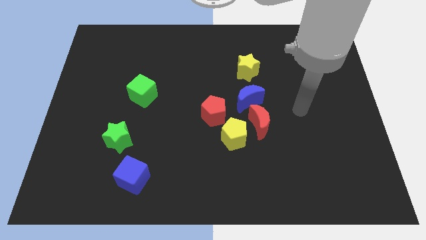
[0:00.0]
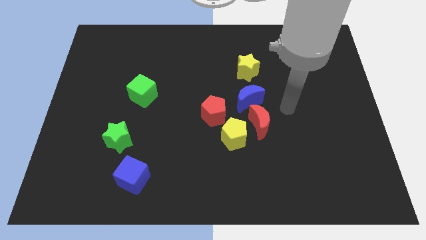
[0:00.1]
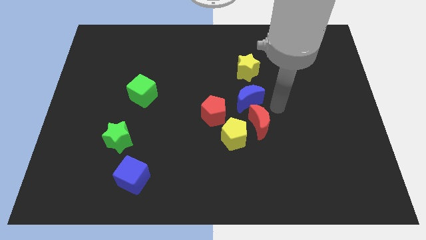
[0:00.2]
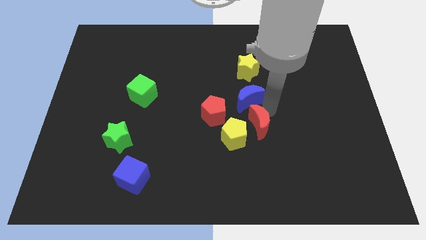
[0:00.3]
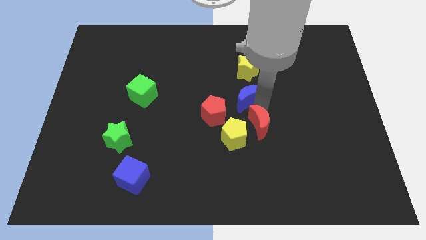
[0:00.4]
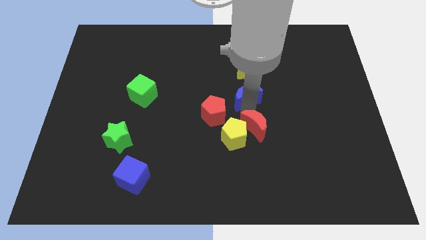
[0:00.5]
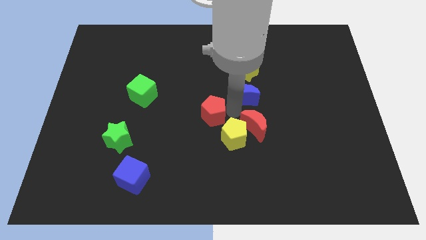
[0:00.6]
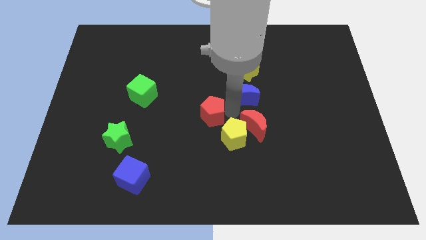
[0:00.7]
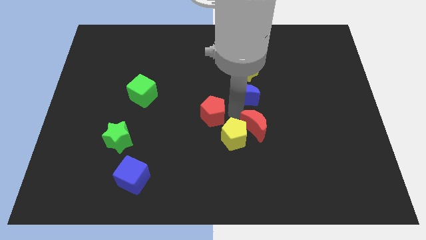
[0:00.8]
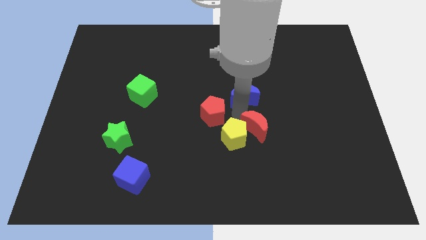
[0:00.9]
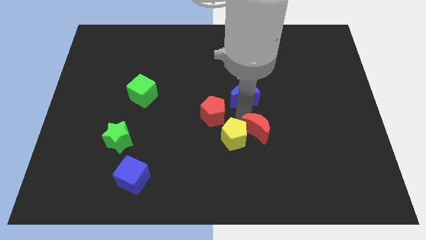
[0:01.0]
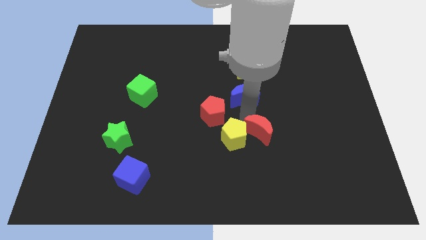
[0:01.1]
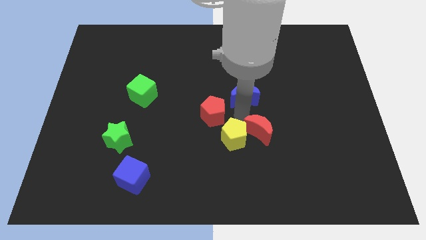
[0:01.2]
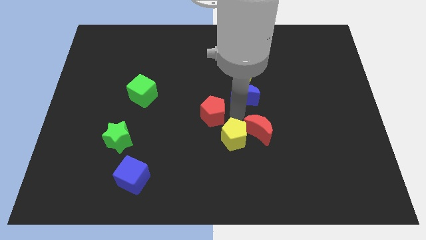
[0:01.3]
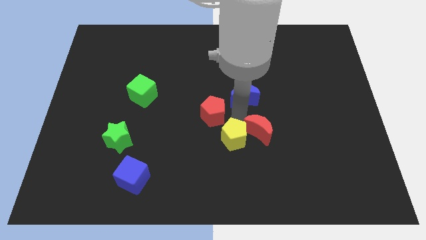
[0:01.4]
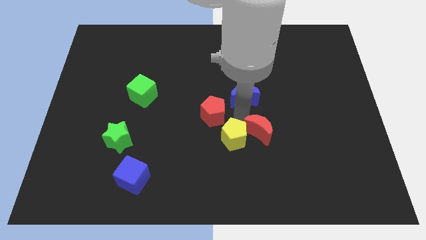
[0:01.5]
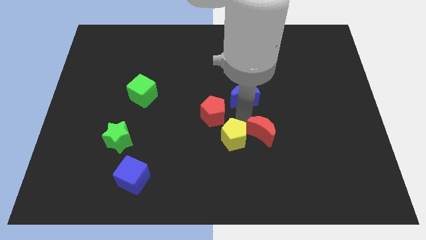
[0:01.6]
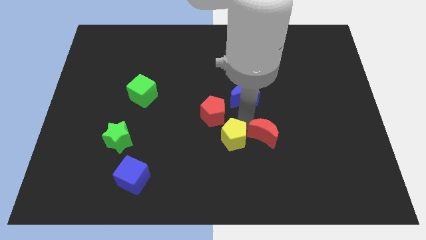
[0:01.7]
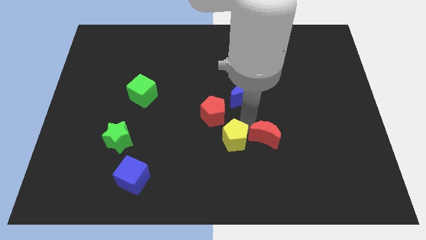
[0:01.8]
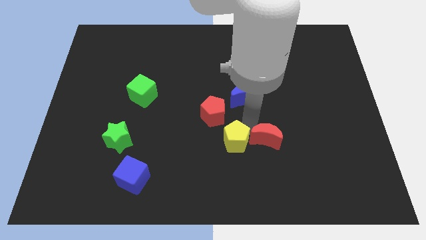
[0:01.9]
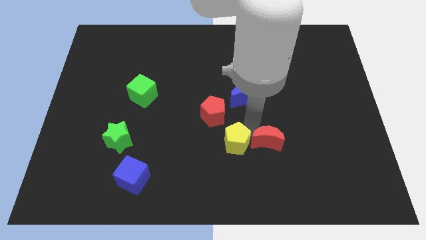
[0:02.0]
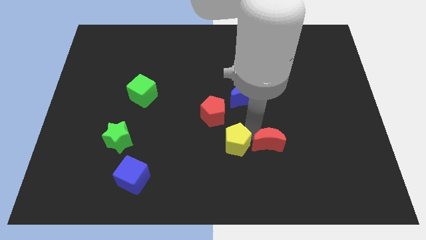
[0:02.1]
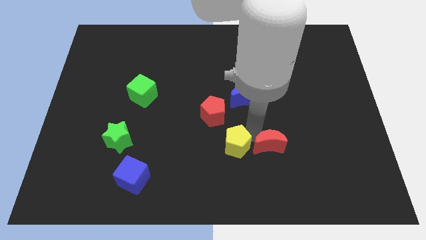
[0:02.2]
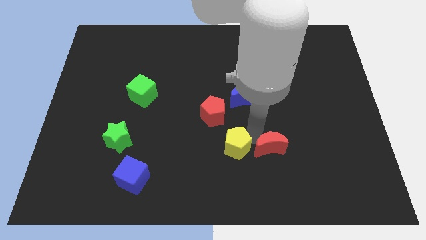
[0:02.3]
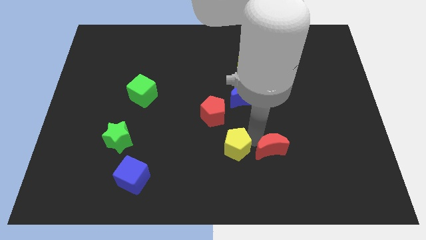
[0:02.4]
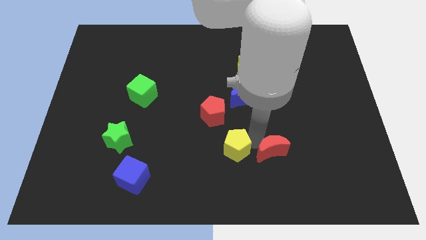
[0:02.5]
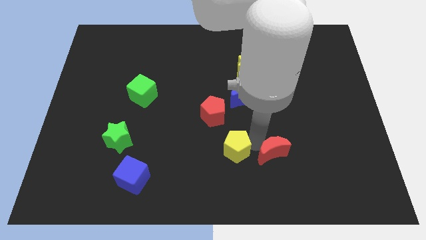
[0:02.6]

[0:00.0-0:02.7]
separate the red moon from the yellow pentagon and blue moon

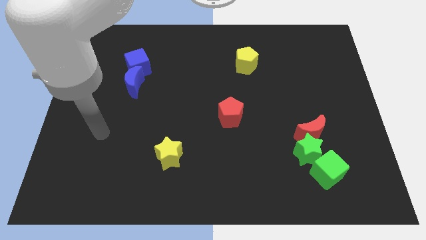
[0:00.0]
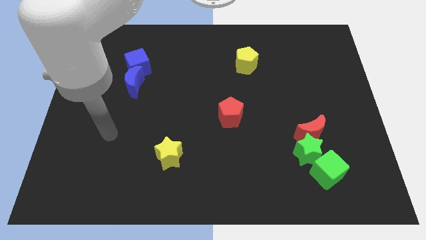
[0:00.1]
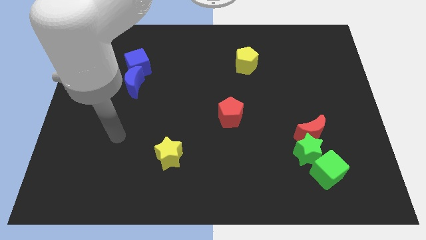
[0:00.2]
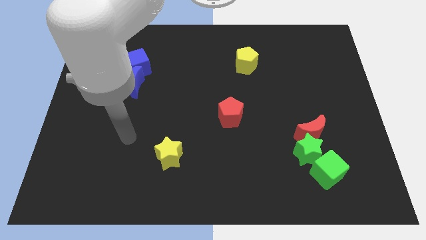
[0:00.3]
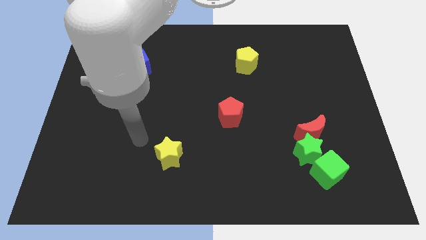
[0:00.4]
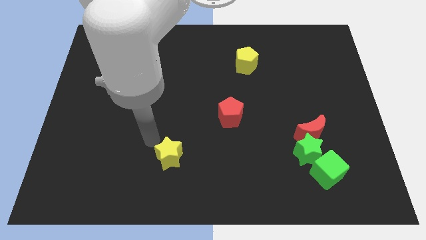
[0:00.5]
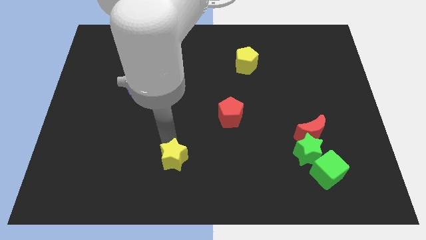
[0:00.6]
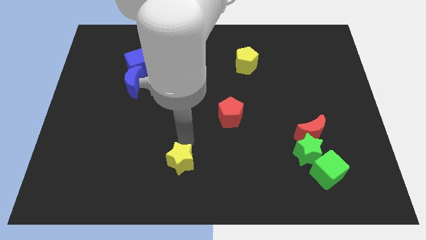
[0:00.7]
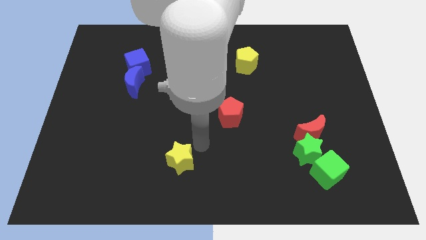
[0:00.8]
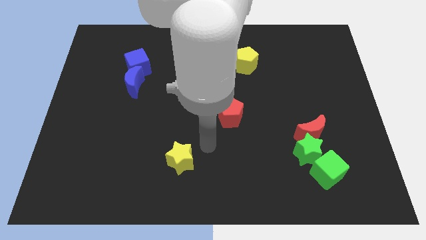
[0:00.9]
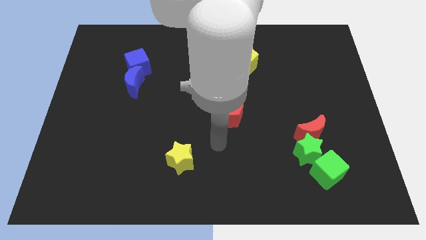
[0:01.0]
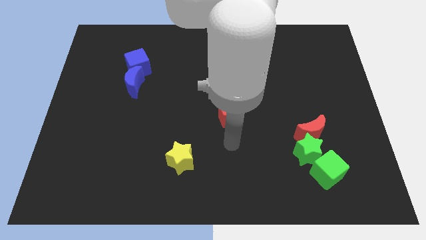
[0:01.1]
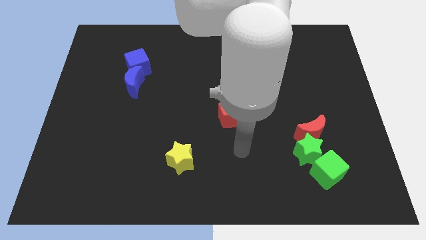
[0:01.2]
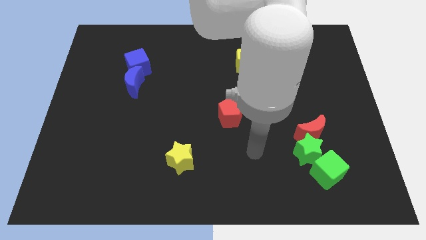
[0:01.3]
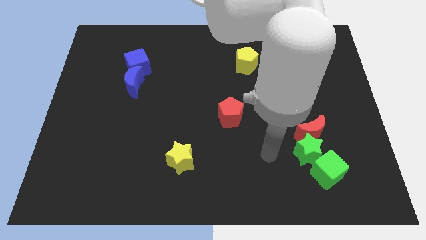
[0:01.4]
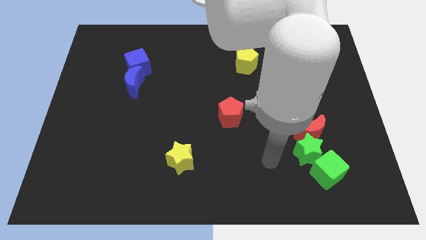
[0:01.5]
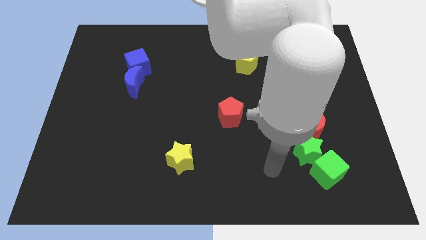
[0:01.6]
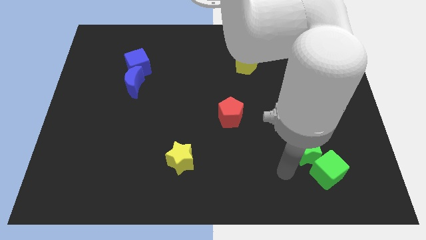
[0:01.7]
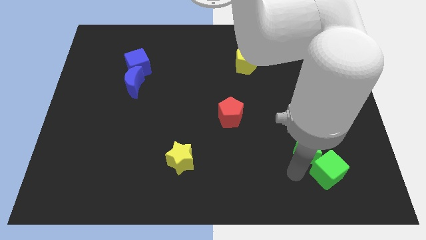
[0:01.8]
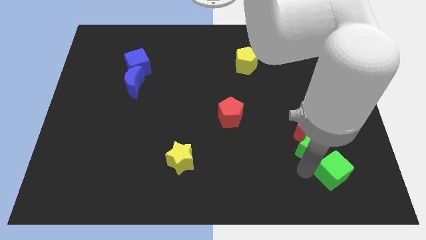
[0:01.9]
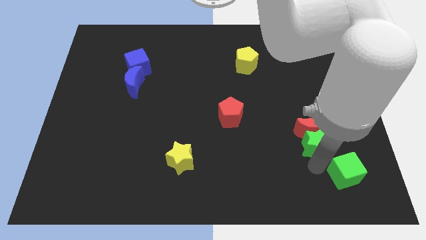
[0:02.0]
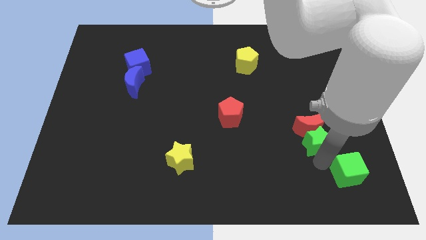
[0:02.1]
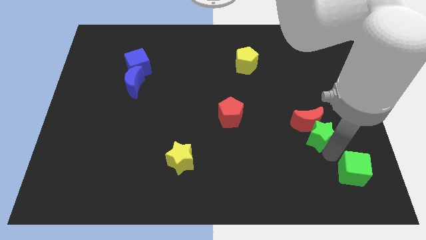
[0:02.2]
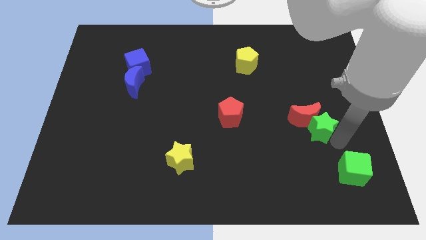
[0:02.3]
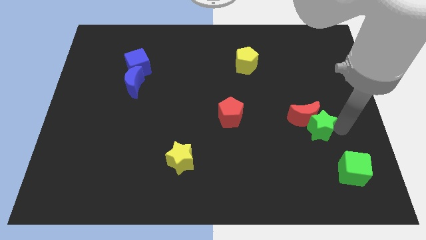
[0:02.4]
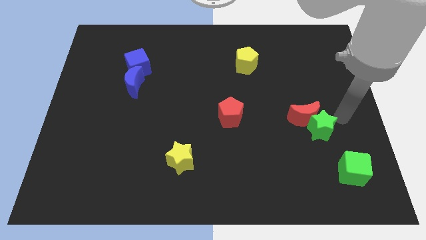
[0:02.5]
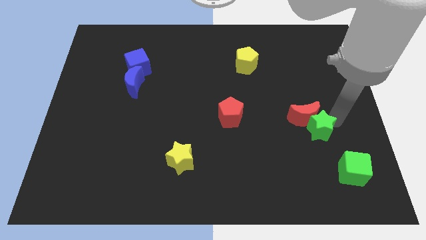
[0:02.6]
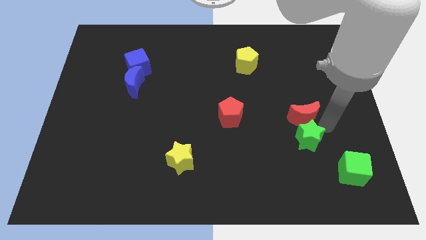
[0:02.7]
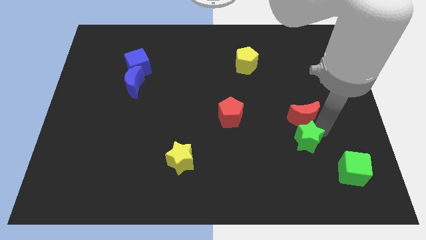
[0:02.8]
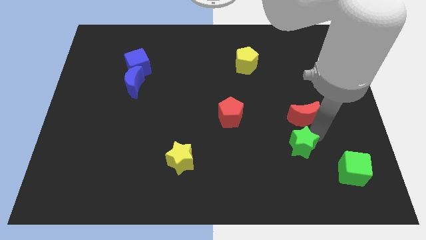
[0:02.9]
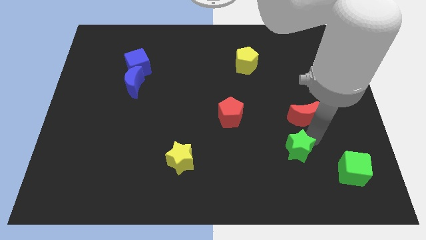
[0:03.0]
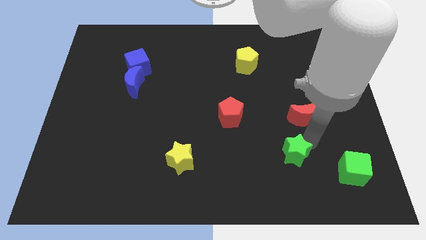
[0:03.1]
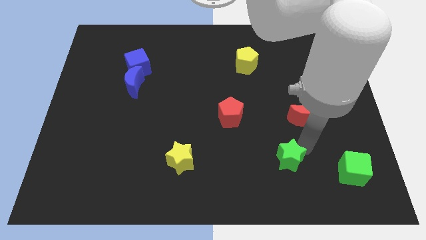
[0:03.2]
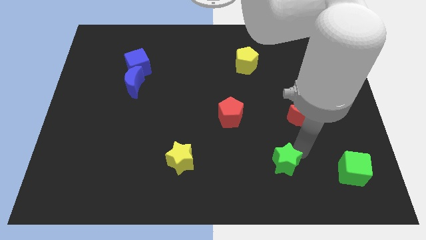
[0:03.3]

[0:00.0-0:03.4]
move the green star away from the red moon and green cube

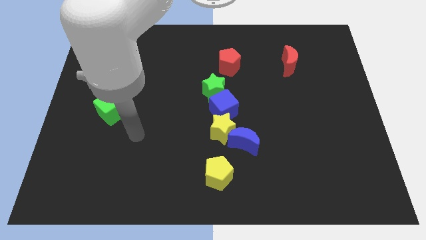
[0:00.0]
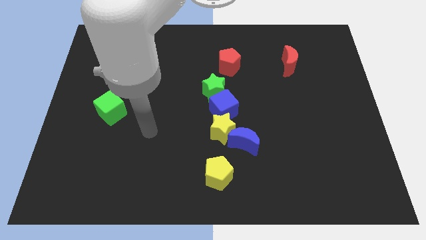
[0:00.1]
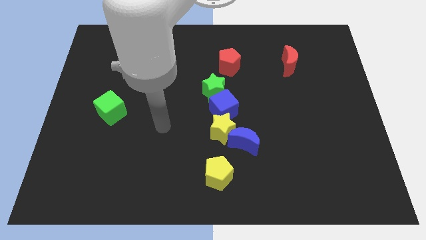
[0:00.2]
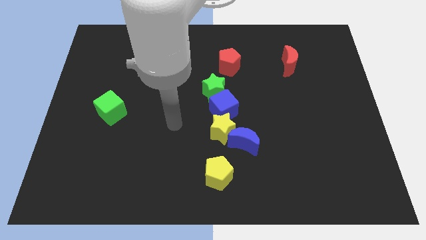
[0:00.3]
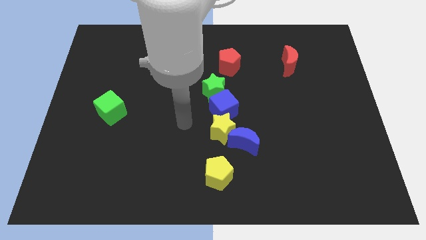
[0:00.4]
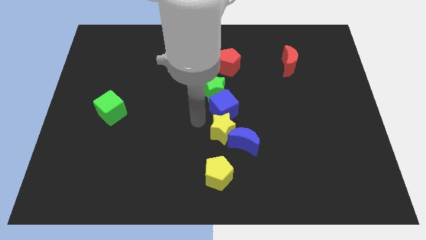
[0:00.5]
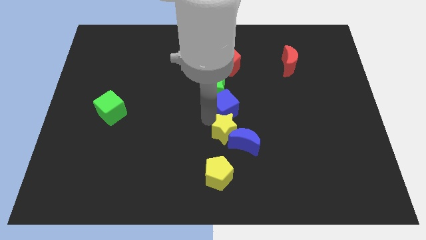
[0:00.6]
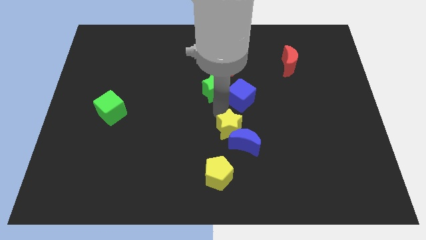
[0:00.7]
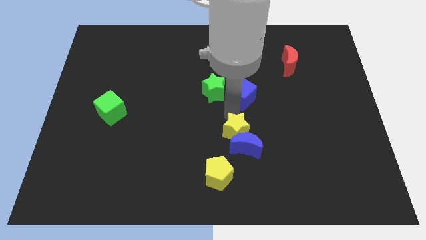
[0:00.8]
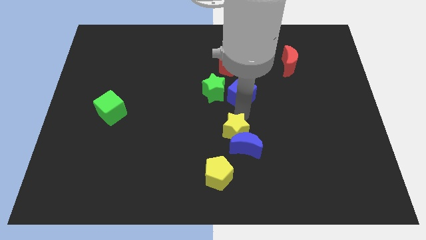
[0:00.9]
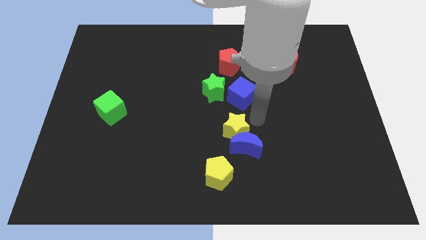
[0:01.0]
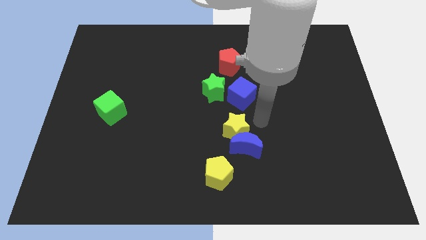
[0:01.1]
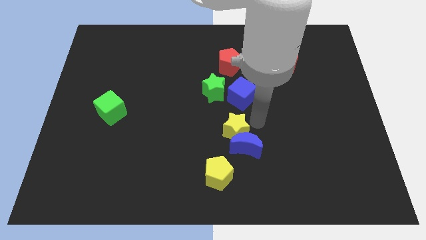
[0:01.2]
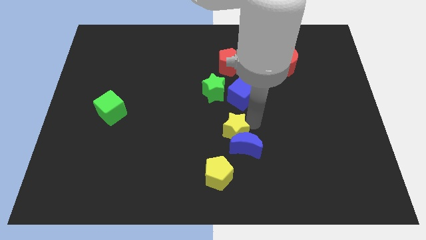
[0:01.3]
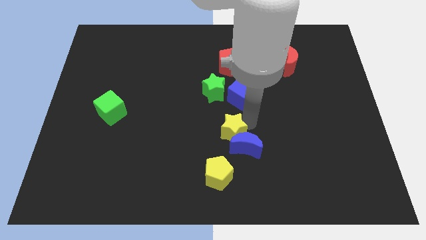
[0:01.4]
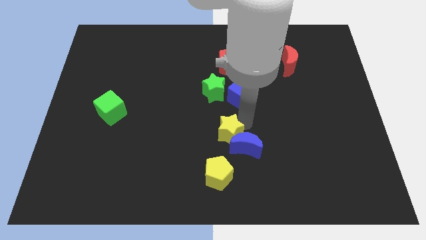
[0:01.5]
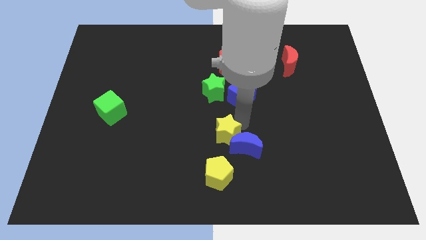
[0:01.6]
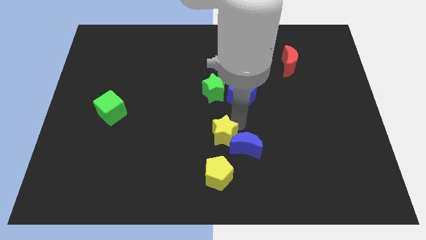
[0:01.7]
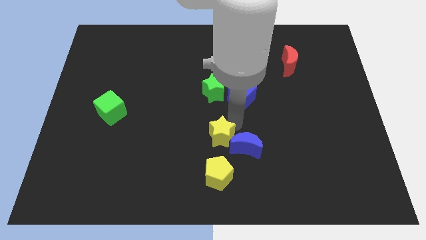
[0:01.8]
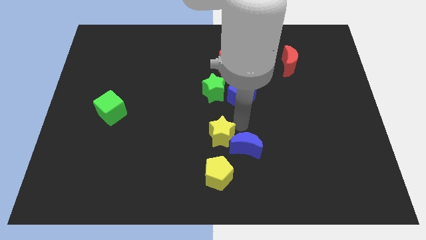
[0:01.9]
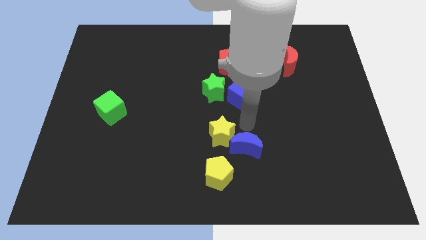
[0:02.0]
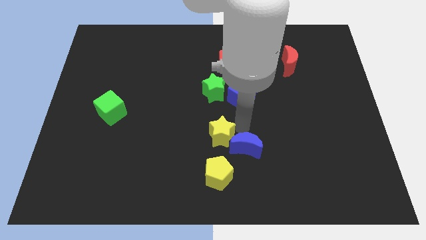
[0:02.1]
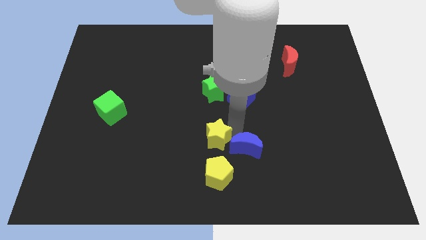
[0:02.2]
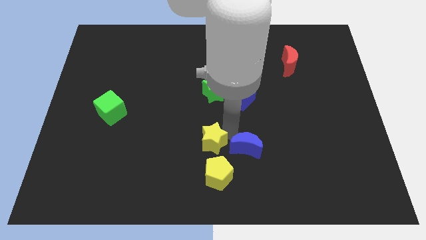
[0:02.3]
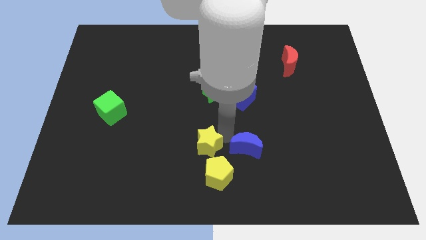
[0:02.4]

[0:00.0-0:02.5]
pull the yellow star apart from the blue moon and blue cube

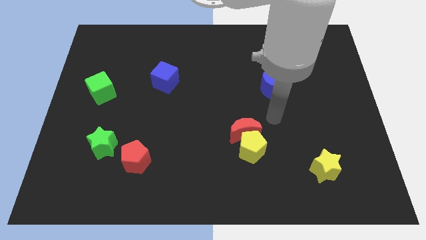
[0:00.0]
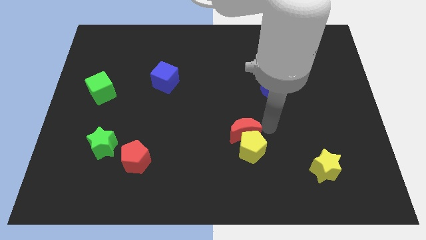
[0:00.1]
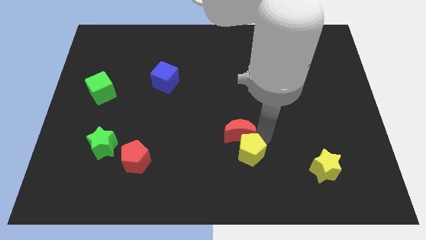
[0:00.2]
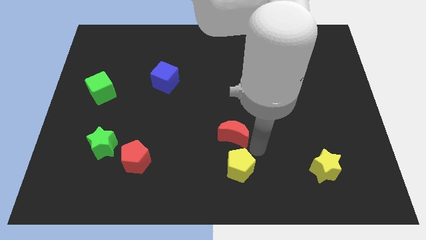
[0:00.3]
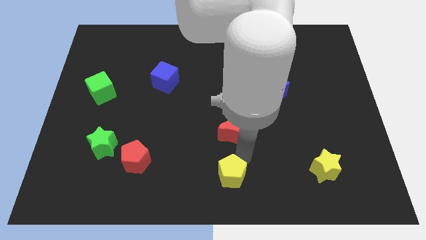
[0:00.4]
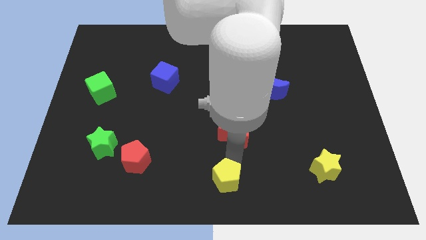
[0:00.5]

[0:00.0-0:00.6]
move the red moon away from the yellow pentagon

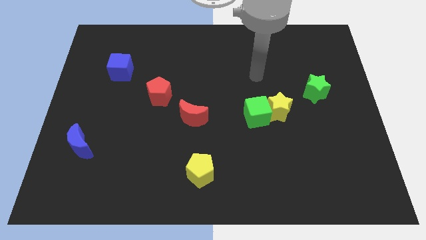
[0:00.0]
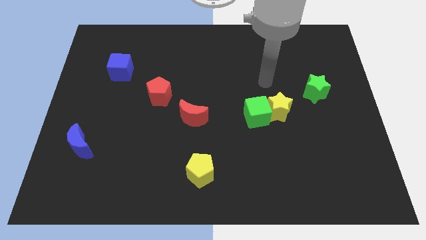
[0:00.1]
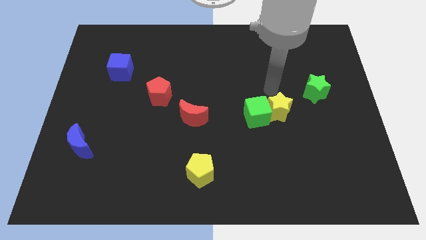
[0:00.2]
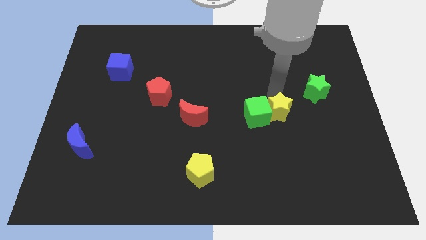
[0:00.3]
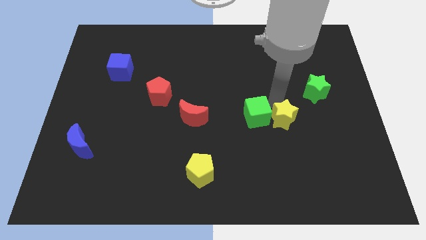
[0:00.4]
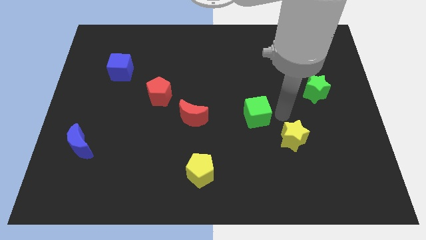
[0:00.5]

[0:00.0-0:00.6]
move the green cube away from the yellow star
